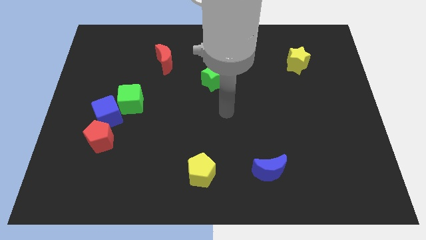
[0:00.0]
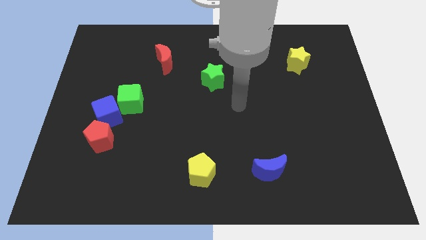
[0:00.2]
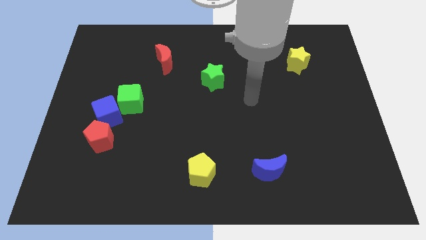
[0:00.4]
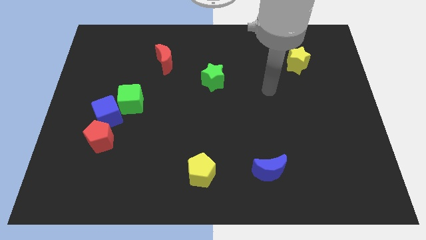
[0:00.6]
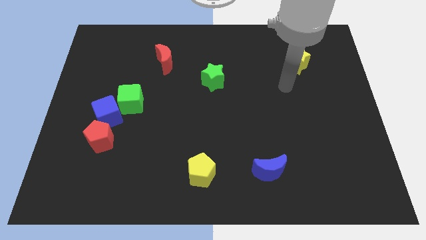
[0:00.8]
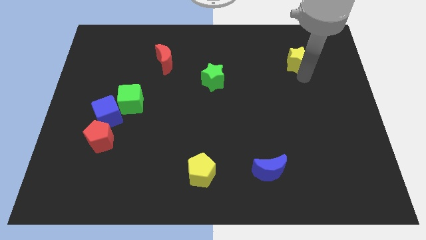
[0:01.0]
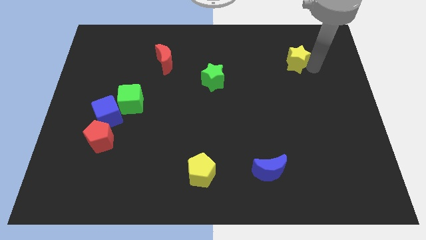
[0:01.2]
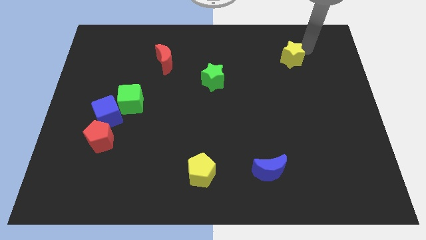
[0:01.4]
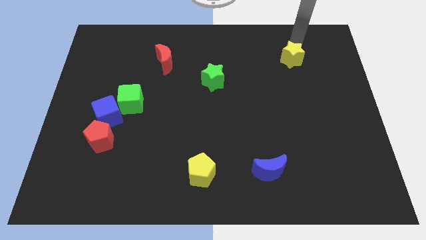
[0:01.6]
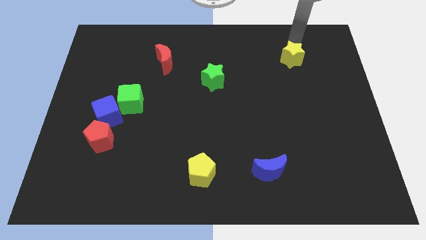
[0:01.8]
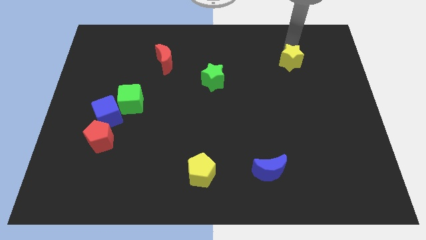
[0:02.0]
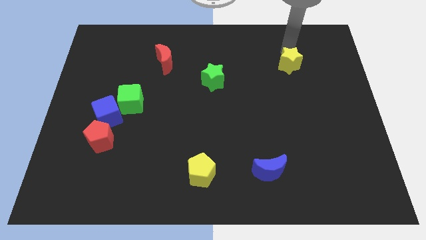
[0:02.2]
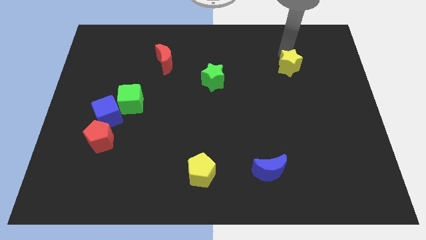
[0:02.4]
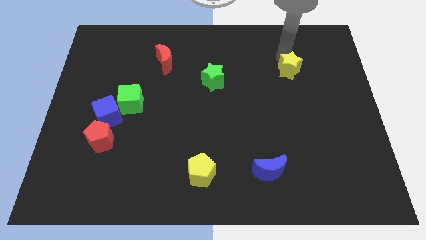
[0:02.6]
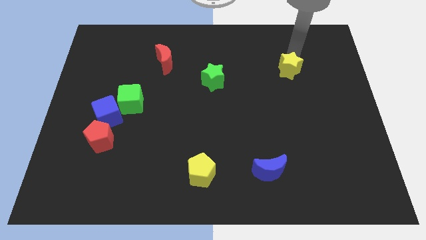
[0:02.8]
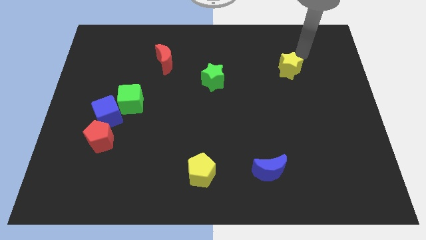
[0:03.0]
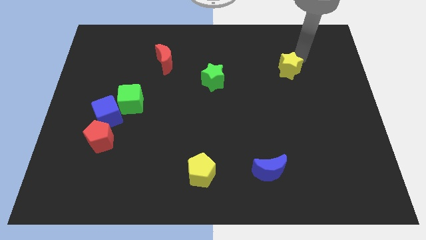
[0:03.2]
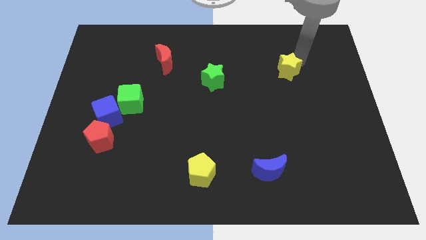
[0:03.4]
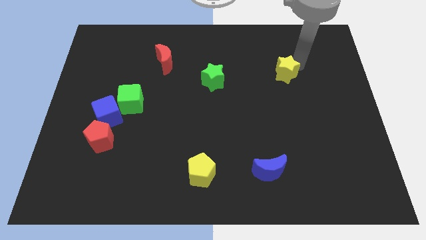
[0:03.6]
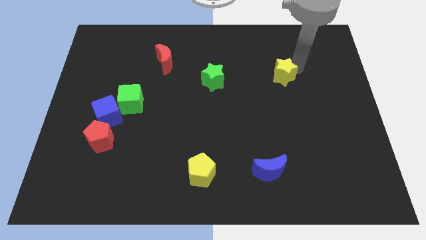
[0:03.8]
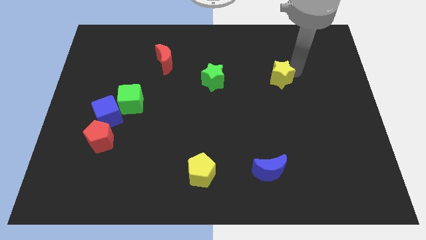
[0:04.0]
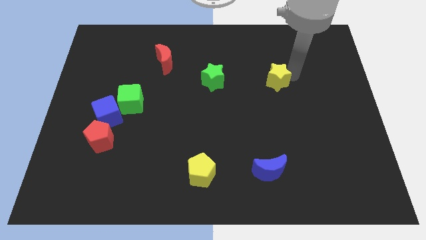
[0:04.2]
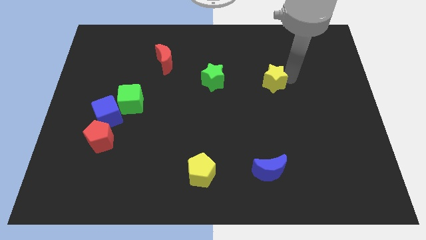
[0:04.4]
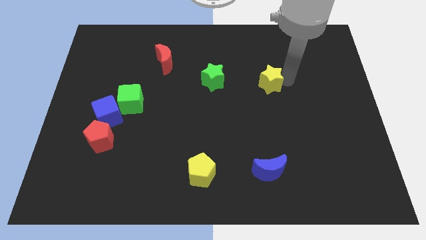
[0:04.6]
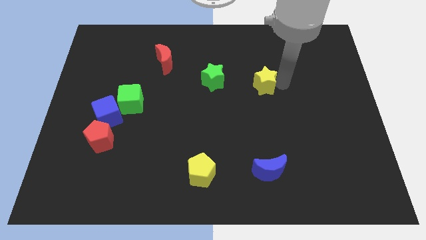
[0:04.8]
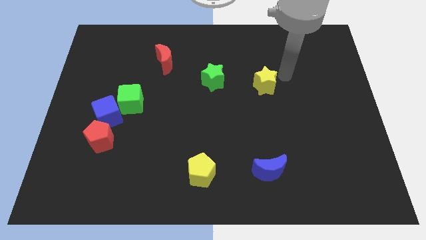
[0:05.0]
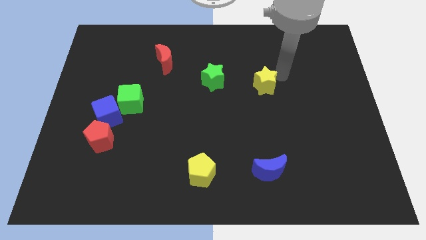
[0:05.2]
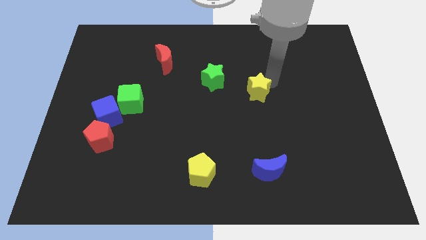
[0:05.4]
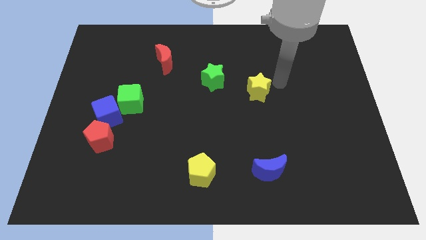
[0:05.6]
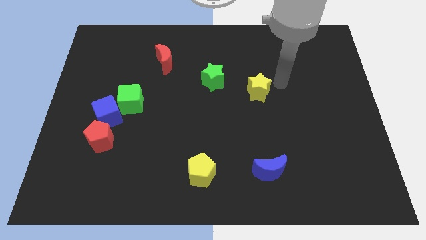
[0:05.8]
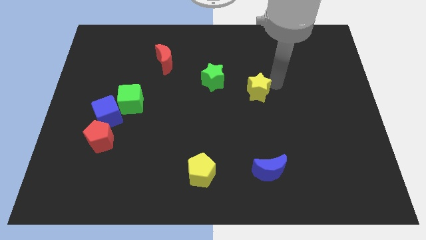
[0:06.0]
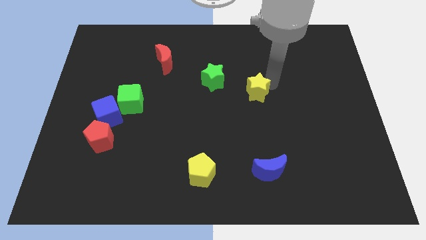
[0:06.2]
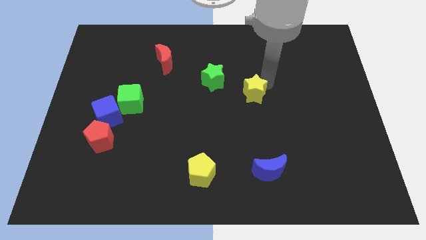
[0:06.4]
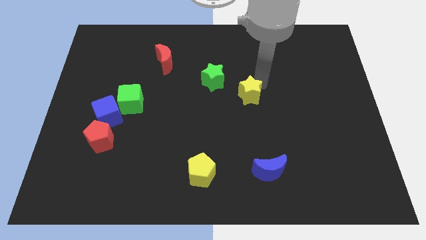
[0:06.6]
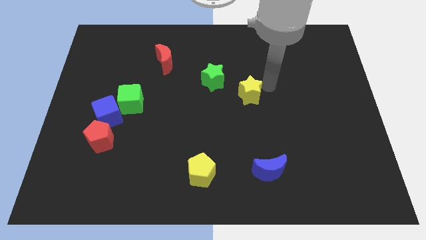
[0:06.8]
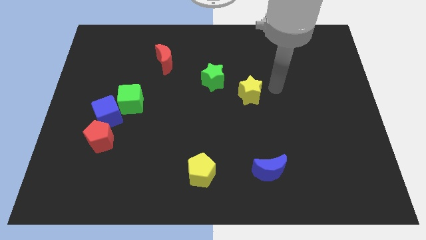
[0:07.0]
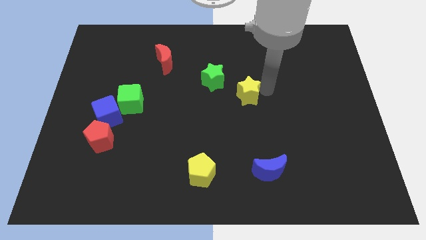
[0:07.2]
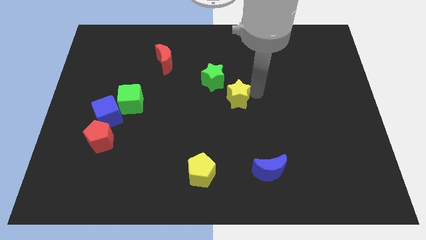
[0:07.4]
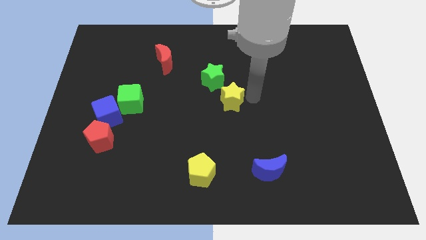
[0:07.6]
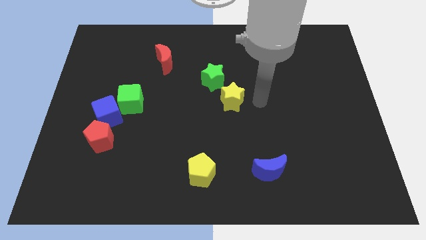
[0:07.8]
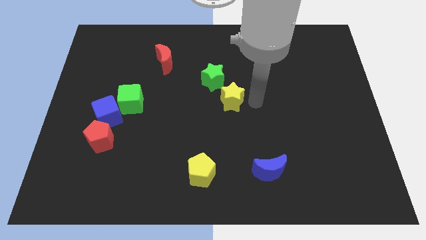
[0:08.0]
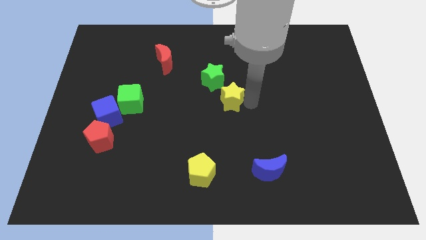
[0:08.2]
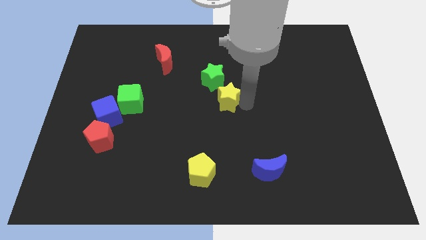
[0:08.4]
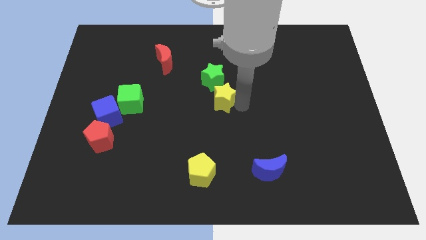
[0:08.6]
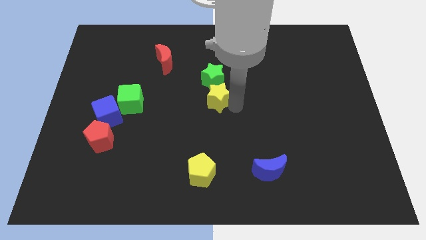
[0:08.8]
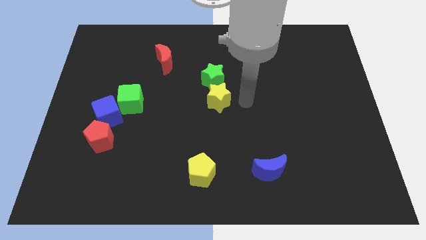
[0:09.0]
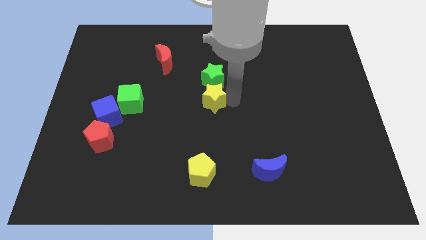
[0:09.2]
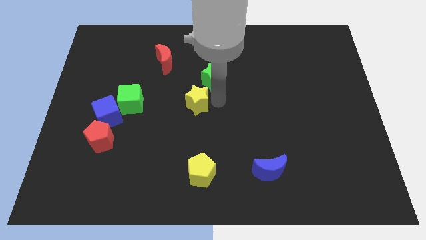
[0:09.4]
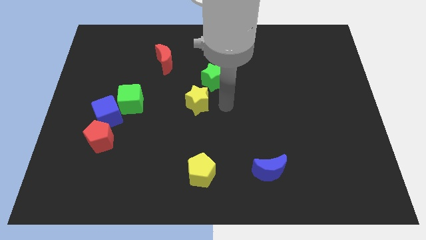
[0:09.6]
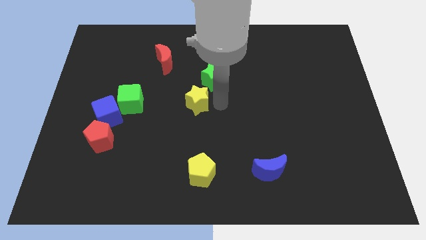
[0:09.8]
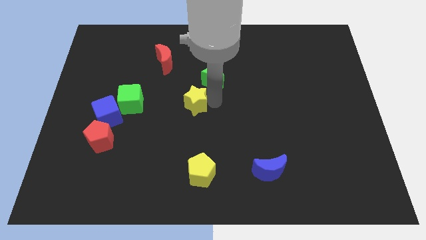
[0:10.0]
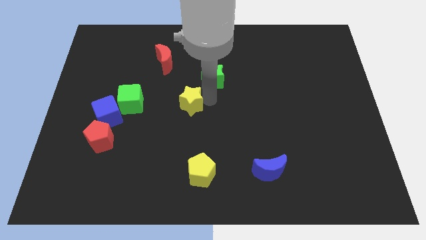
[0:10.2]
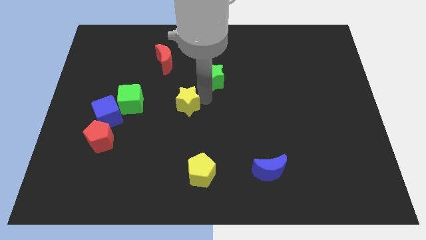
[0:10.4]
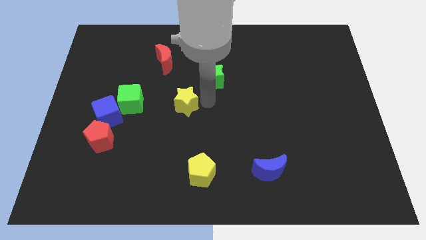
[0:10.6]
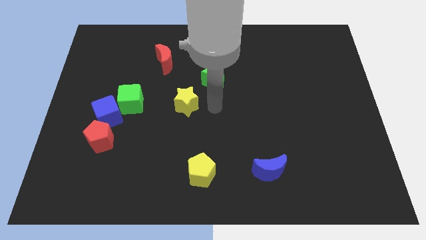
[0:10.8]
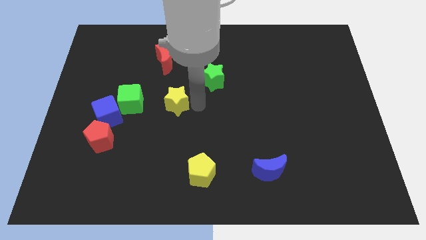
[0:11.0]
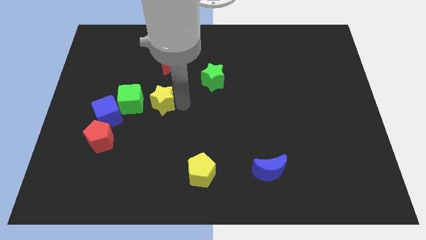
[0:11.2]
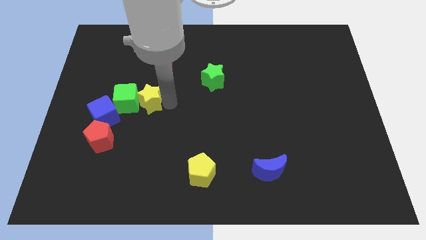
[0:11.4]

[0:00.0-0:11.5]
push the yellow star towards the green cube

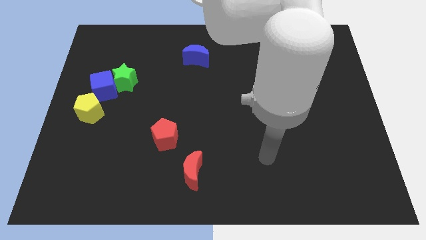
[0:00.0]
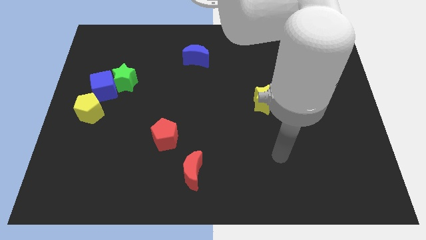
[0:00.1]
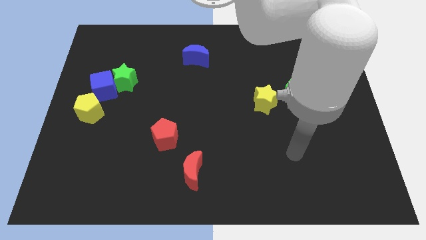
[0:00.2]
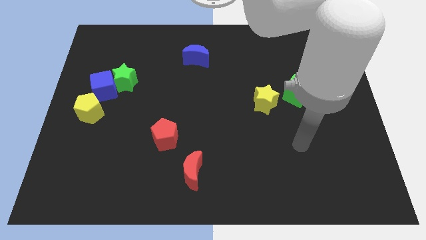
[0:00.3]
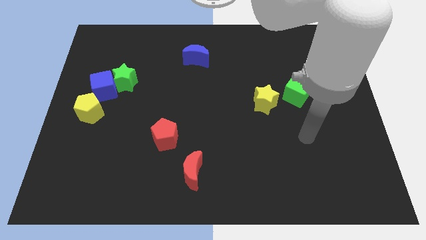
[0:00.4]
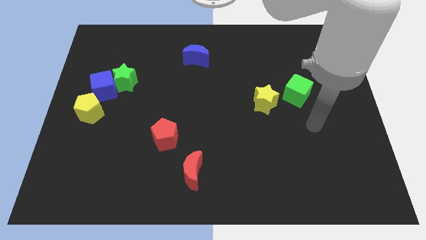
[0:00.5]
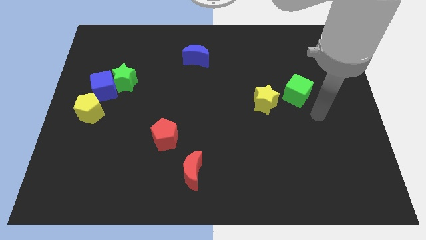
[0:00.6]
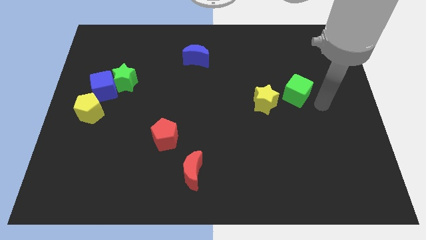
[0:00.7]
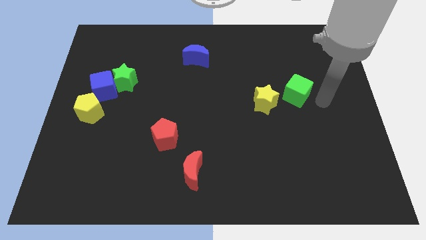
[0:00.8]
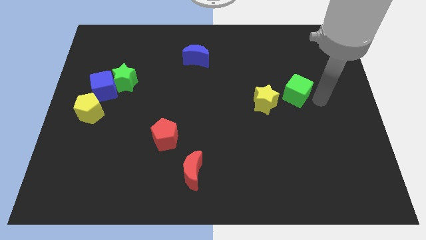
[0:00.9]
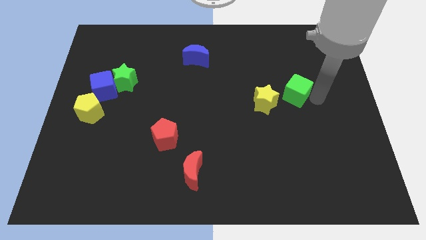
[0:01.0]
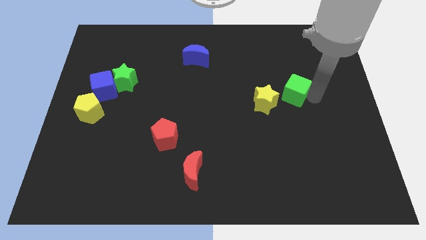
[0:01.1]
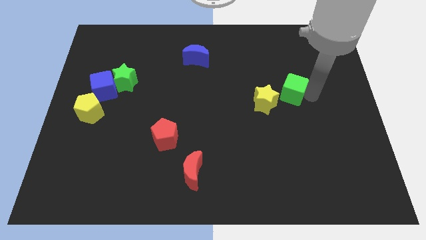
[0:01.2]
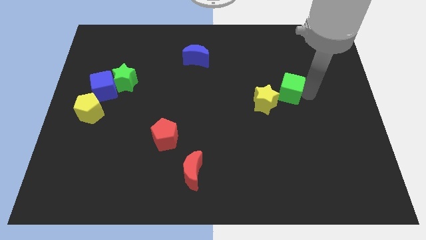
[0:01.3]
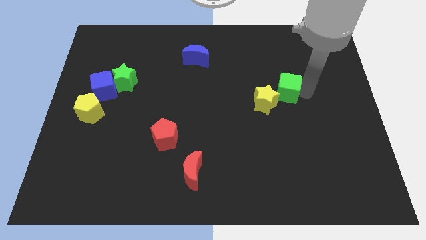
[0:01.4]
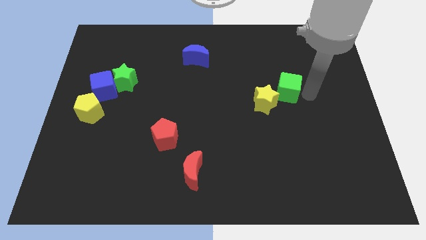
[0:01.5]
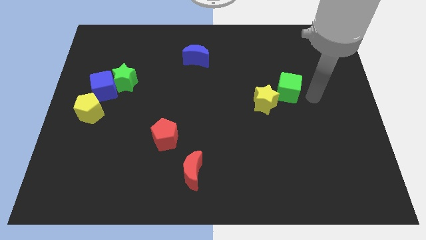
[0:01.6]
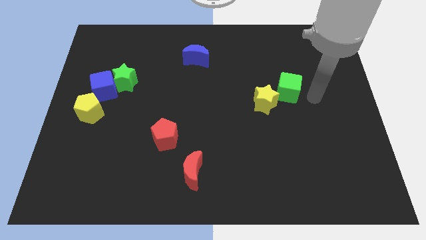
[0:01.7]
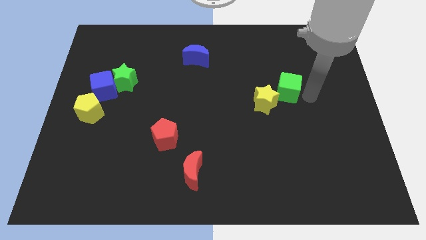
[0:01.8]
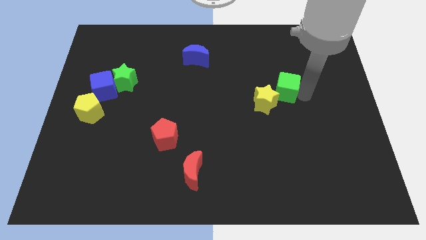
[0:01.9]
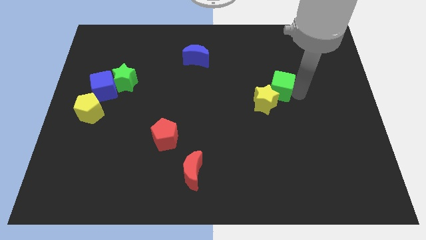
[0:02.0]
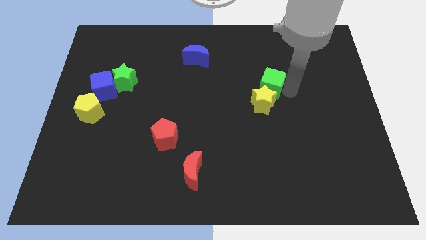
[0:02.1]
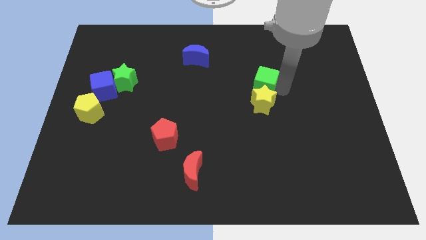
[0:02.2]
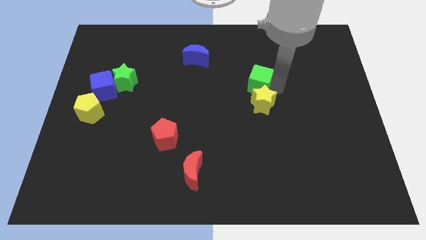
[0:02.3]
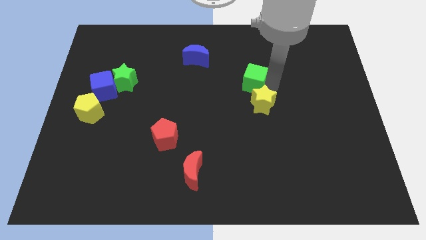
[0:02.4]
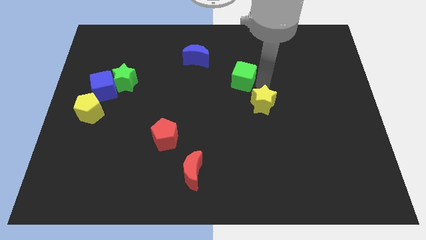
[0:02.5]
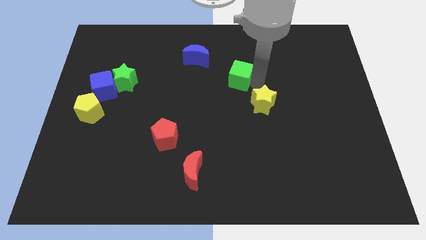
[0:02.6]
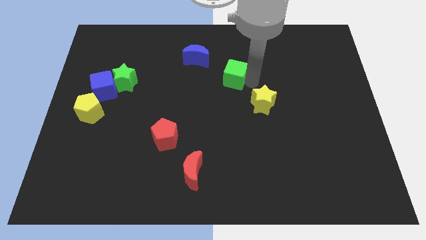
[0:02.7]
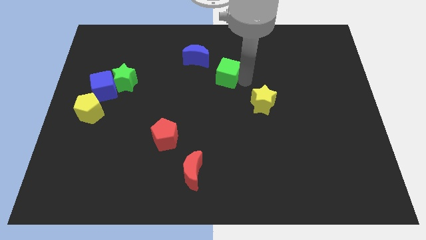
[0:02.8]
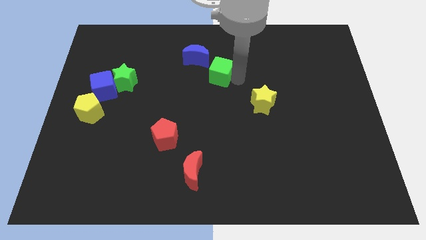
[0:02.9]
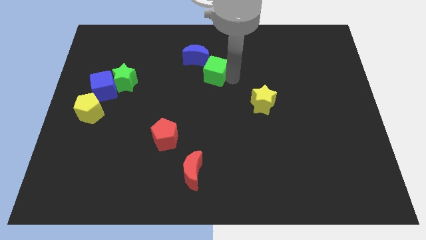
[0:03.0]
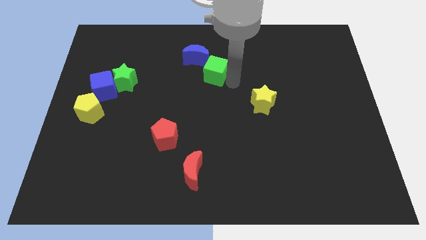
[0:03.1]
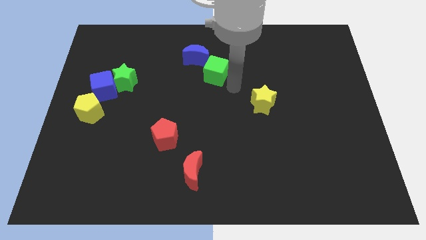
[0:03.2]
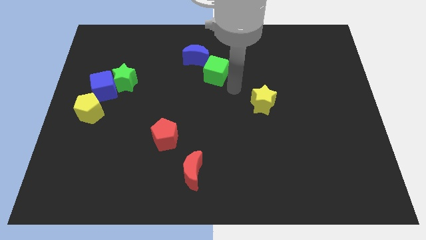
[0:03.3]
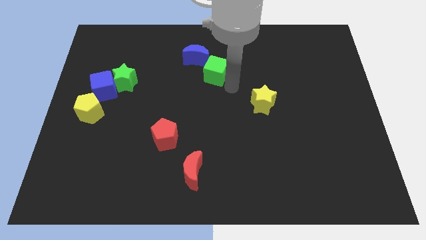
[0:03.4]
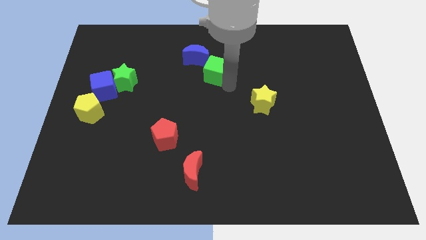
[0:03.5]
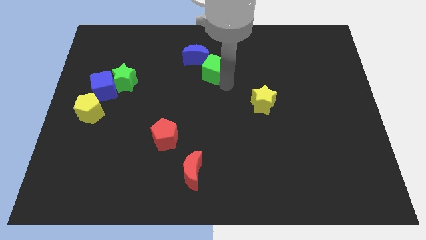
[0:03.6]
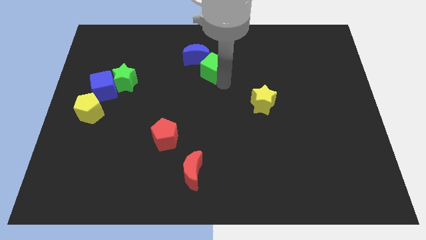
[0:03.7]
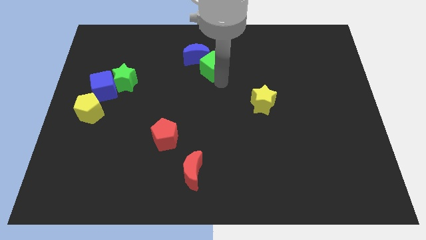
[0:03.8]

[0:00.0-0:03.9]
move the green cube next to the blue moon
